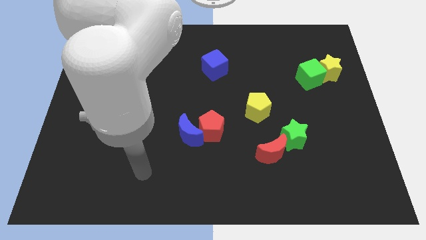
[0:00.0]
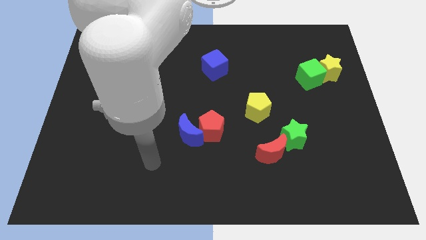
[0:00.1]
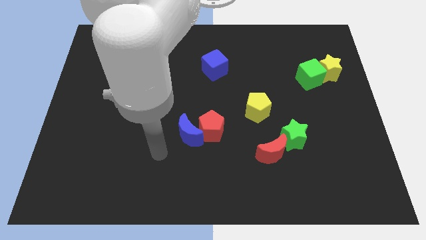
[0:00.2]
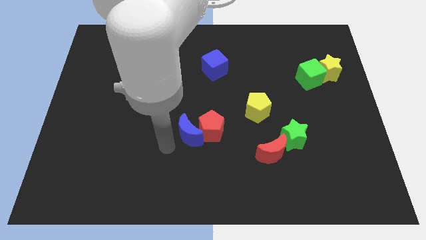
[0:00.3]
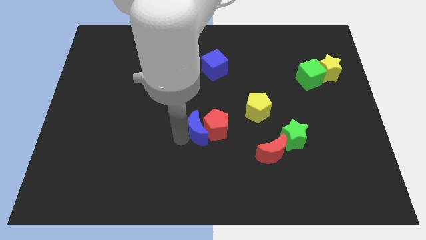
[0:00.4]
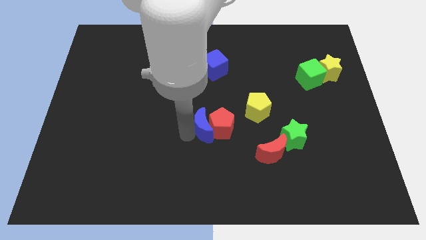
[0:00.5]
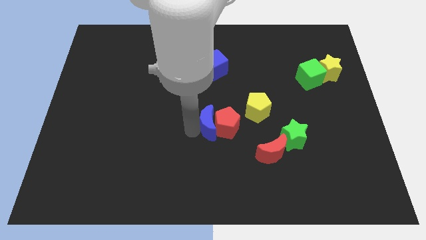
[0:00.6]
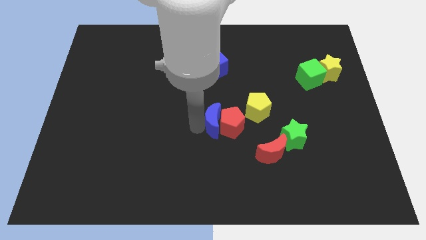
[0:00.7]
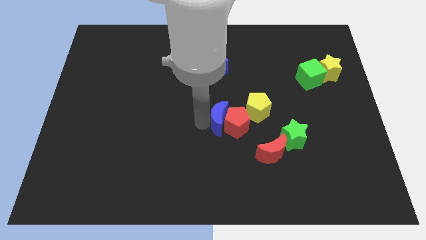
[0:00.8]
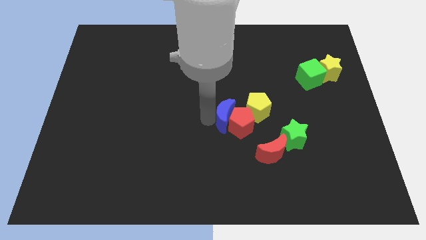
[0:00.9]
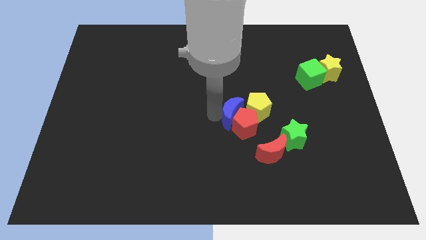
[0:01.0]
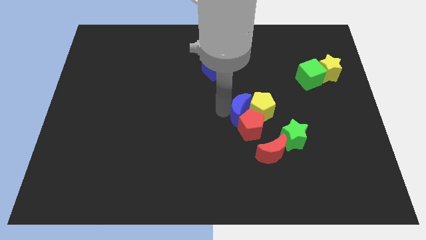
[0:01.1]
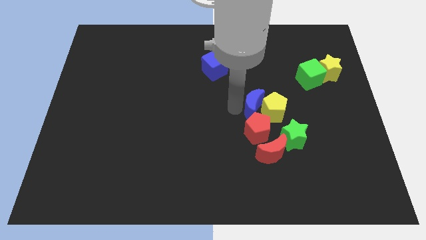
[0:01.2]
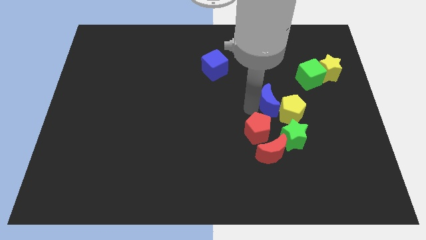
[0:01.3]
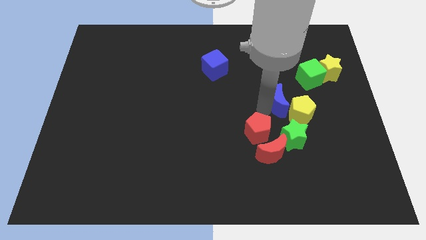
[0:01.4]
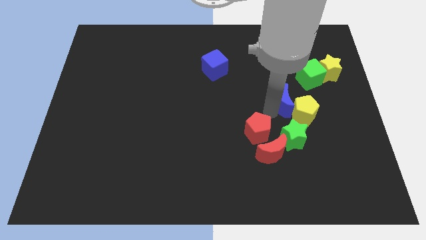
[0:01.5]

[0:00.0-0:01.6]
move the red pentagon away from the blue moon

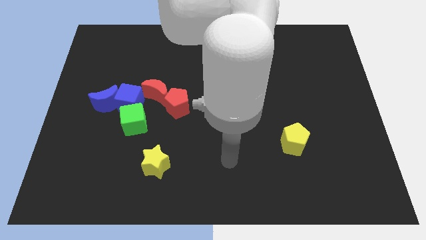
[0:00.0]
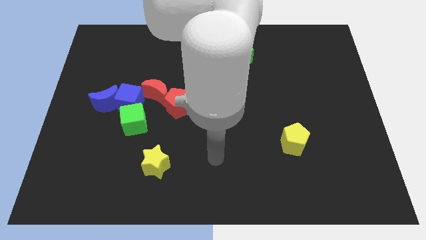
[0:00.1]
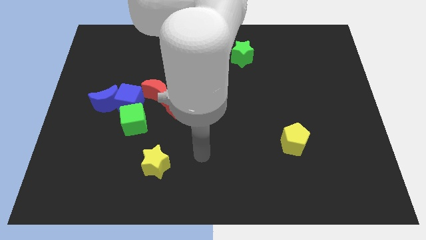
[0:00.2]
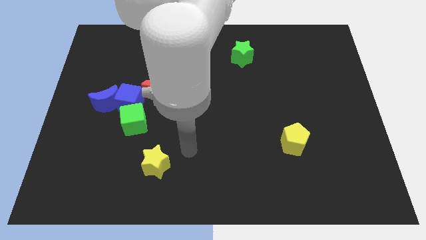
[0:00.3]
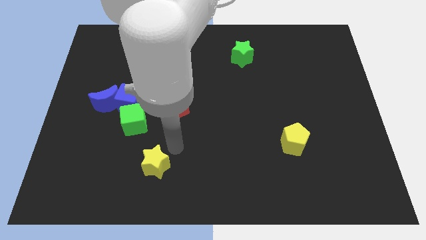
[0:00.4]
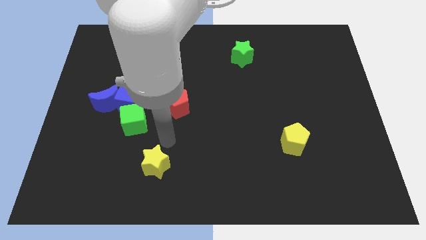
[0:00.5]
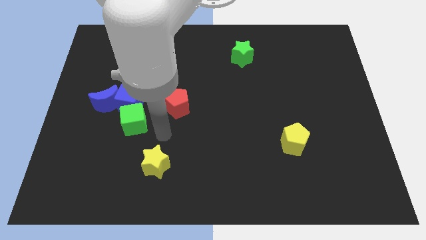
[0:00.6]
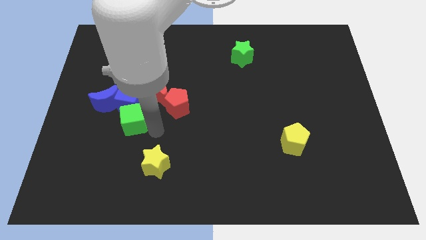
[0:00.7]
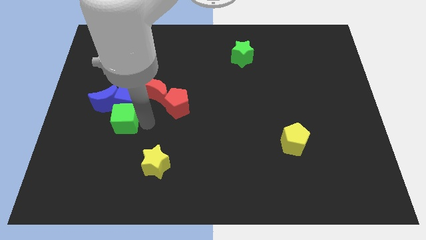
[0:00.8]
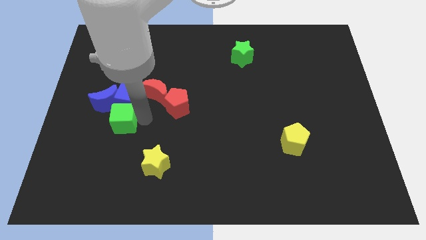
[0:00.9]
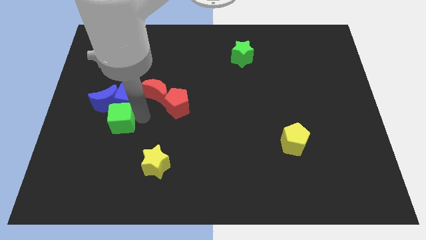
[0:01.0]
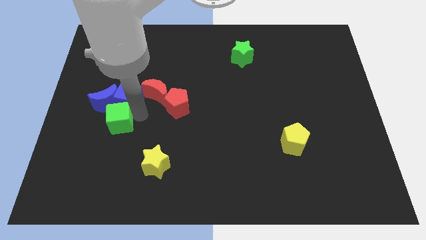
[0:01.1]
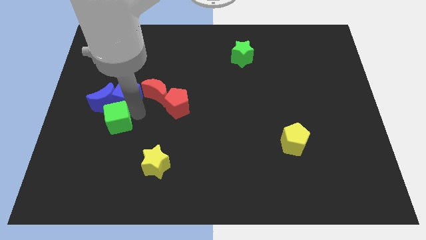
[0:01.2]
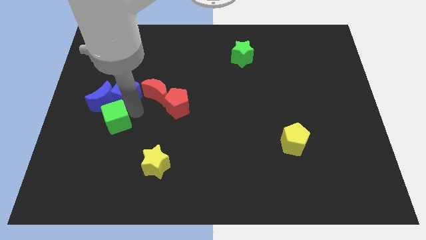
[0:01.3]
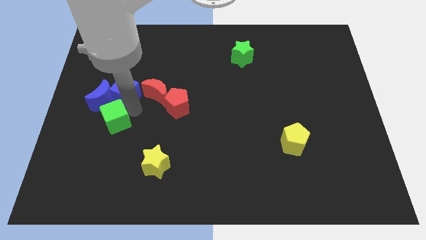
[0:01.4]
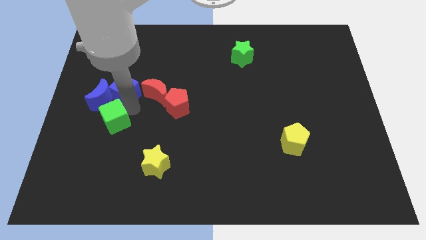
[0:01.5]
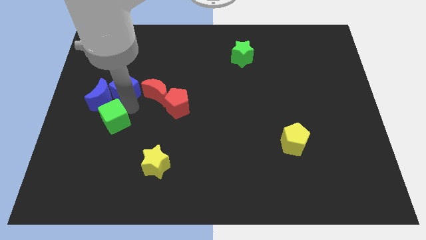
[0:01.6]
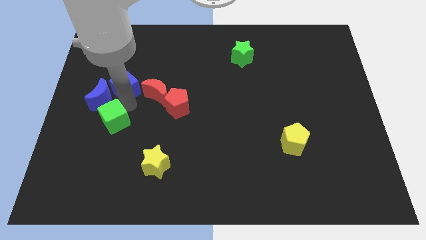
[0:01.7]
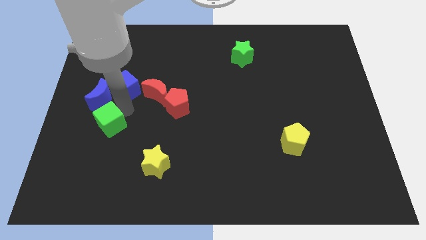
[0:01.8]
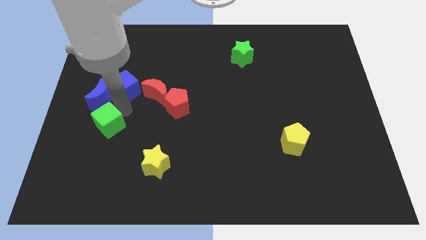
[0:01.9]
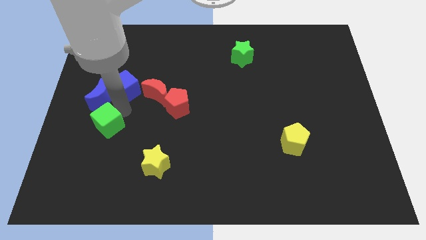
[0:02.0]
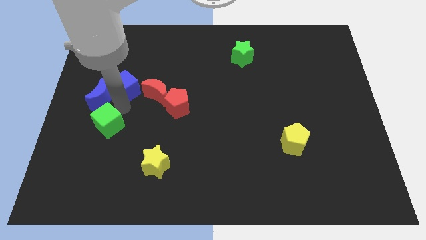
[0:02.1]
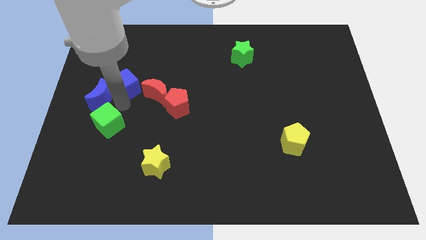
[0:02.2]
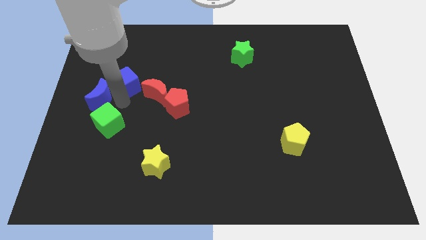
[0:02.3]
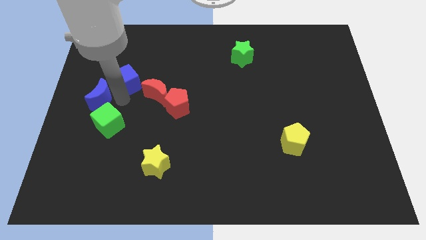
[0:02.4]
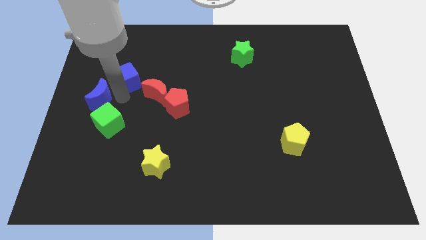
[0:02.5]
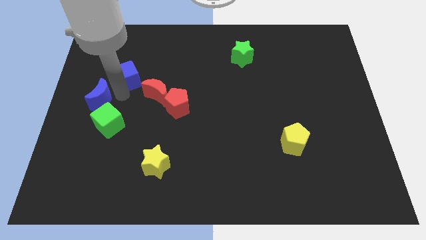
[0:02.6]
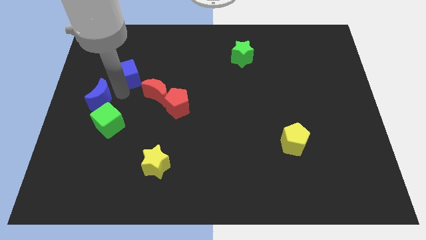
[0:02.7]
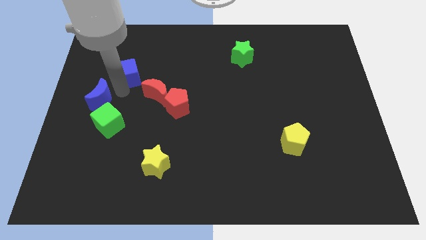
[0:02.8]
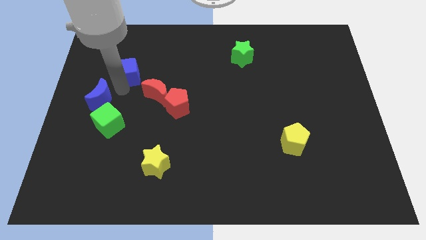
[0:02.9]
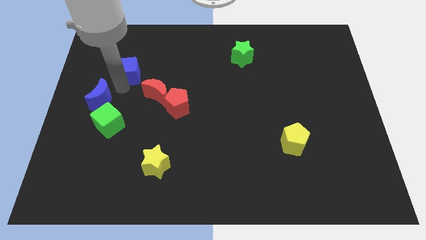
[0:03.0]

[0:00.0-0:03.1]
separate the blue cube from the clump

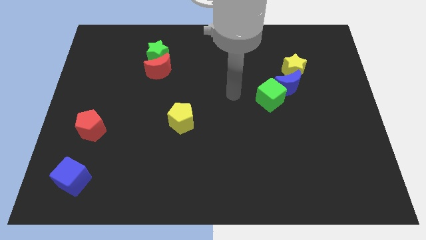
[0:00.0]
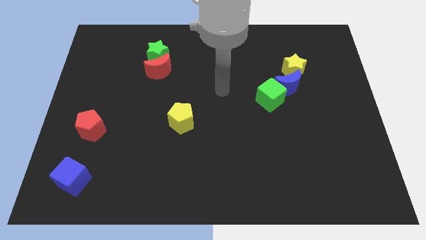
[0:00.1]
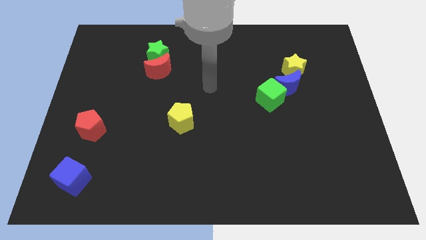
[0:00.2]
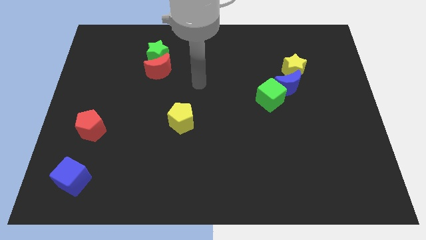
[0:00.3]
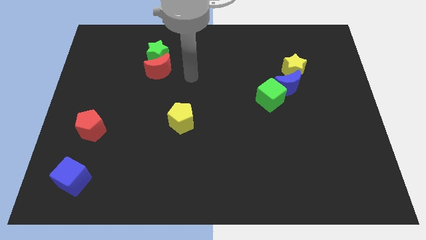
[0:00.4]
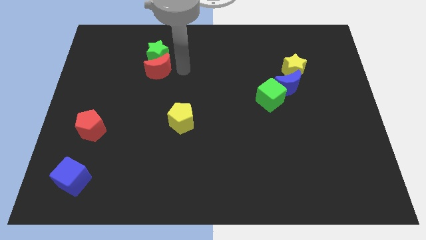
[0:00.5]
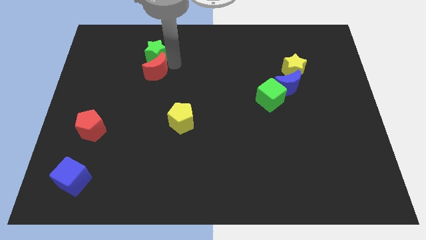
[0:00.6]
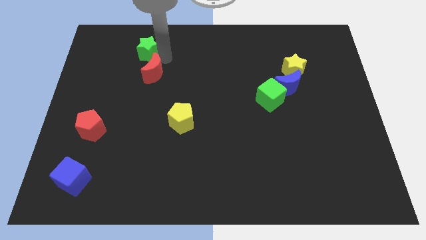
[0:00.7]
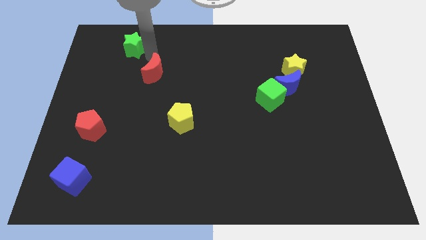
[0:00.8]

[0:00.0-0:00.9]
separate the red moon from the green star

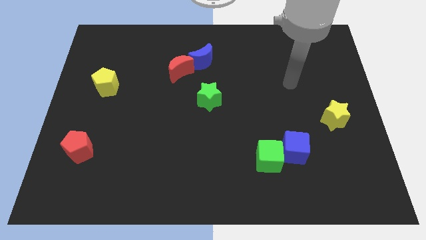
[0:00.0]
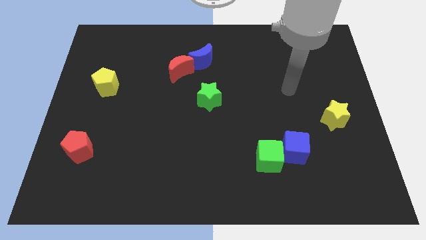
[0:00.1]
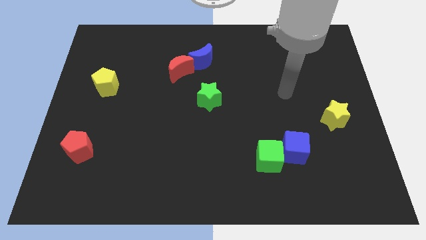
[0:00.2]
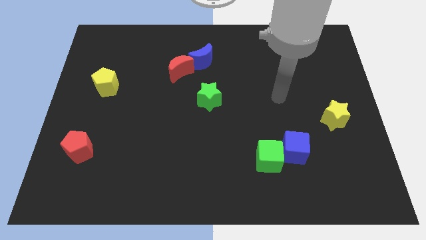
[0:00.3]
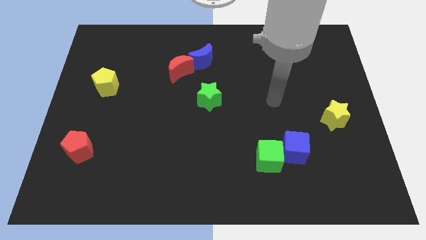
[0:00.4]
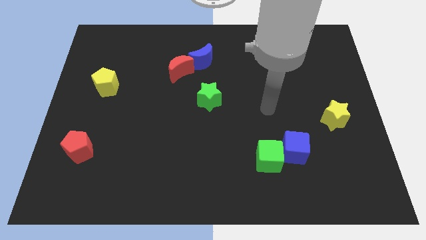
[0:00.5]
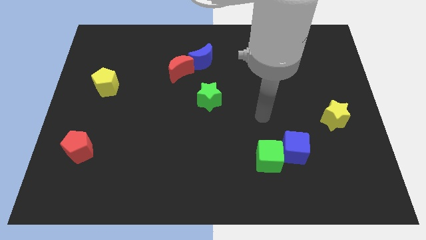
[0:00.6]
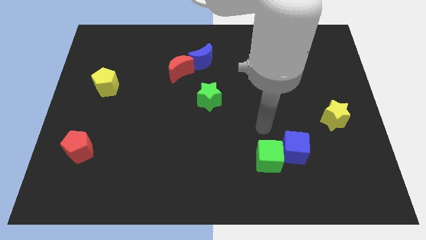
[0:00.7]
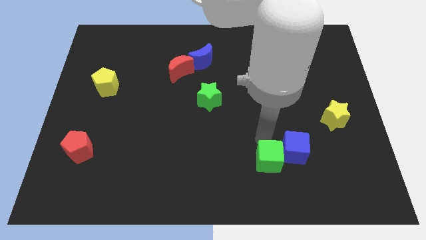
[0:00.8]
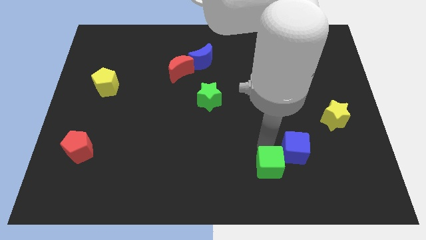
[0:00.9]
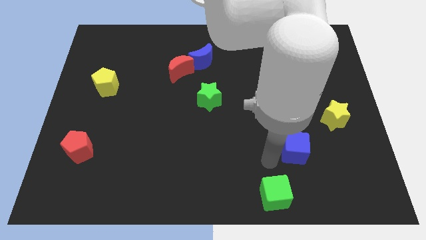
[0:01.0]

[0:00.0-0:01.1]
separate the blue cube from the green cube

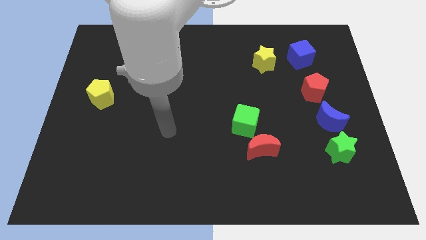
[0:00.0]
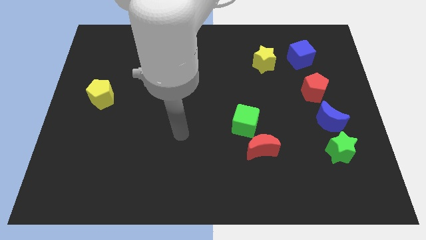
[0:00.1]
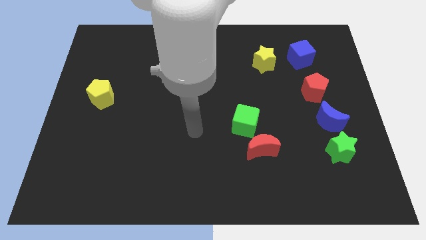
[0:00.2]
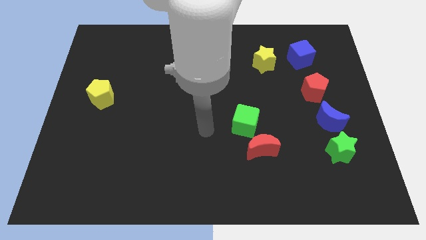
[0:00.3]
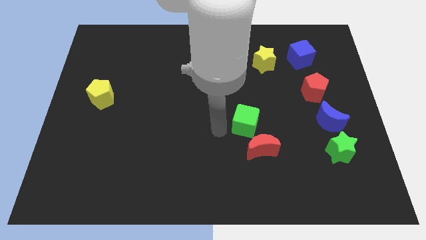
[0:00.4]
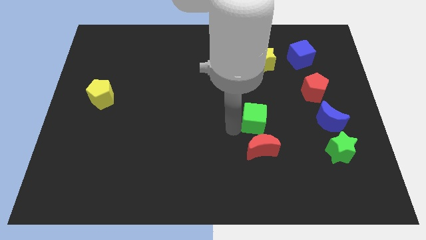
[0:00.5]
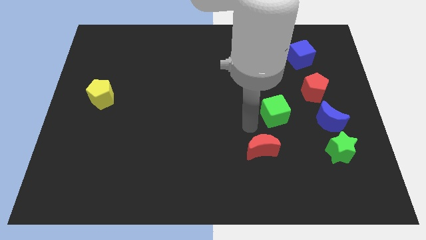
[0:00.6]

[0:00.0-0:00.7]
pull the red moon apart from the green cube

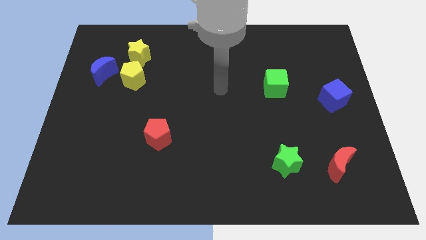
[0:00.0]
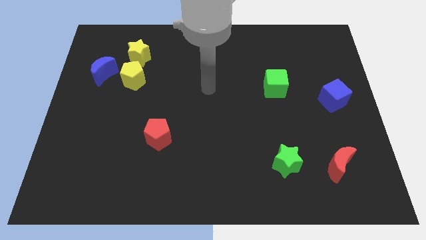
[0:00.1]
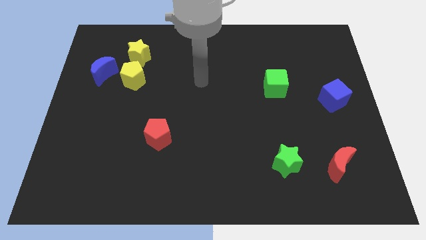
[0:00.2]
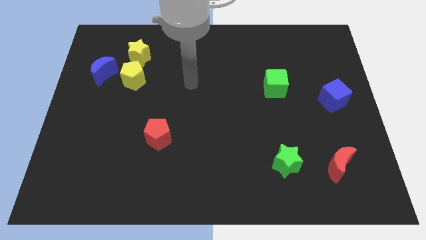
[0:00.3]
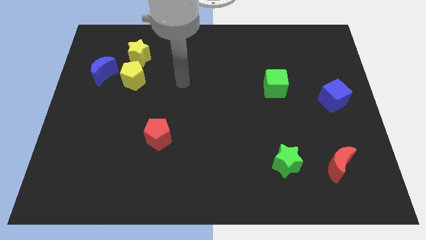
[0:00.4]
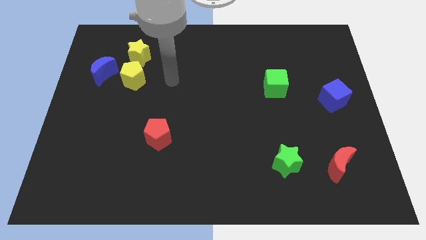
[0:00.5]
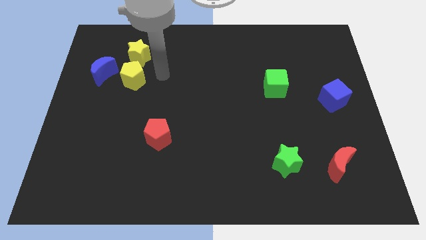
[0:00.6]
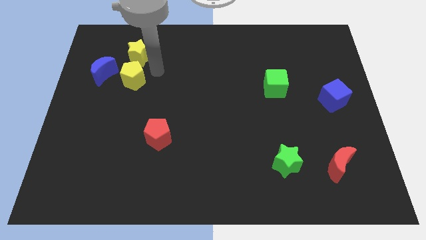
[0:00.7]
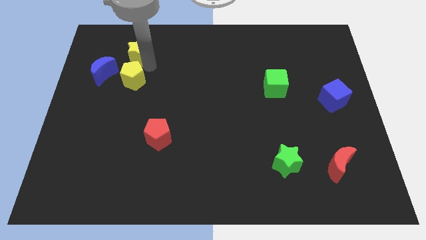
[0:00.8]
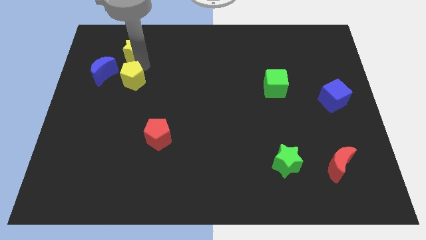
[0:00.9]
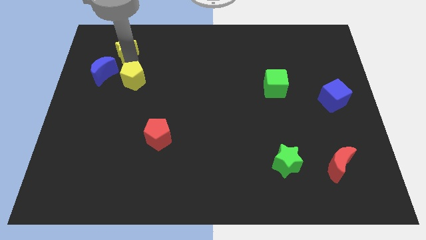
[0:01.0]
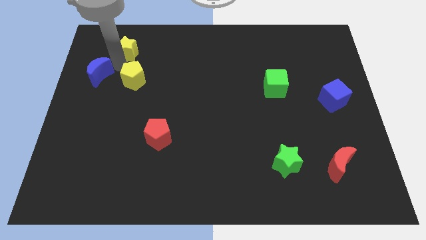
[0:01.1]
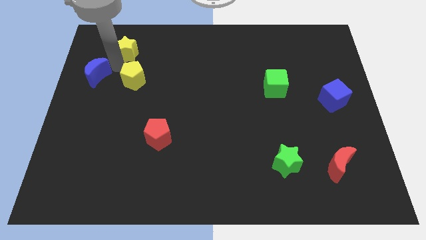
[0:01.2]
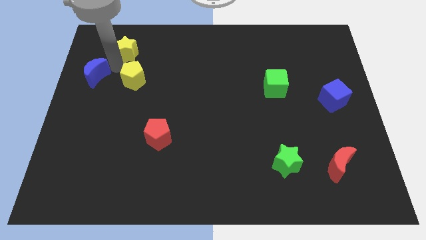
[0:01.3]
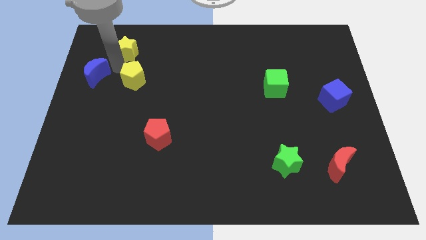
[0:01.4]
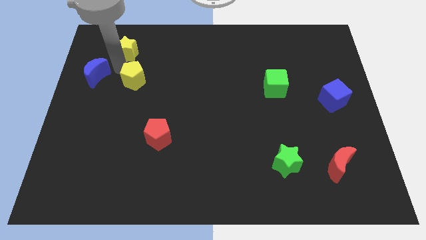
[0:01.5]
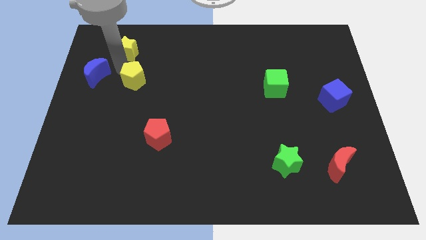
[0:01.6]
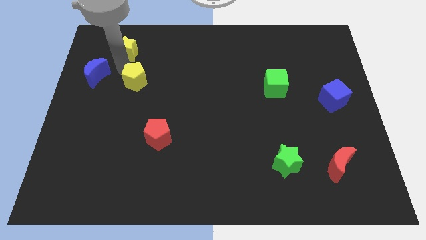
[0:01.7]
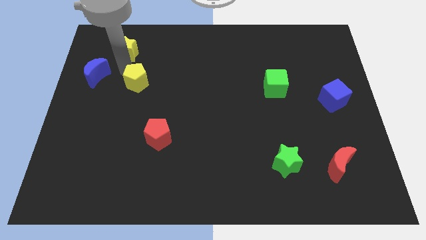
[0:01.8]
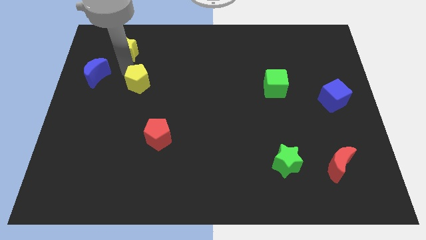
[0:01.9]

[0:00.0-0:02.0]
move the yellow pentagon away from the yellow star and blue moon
